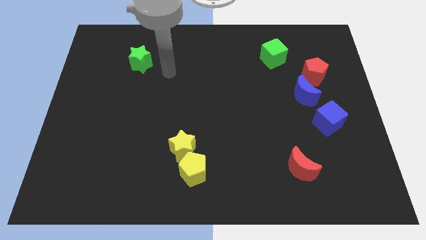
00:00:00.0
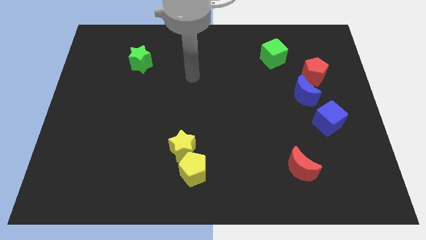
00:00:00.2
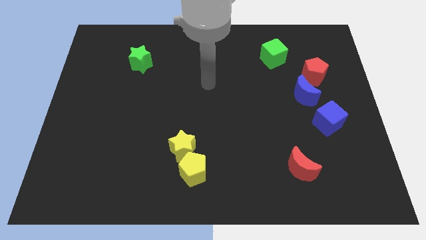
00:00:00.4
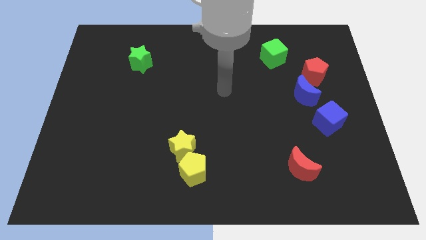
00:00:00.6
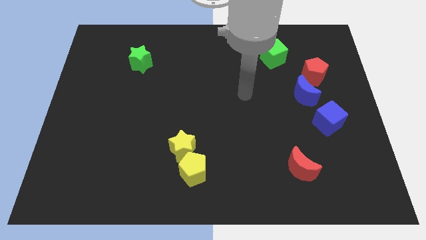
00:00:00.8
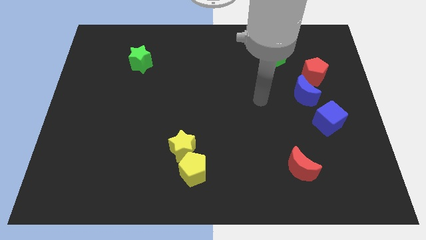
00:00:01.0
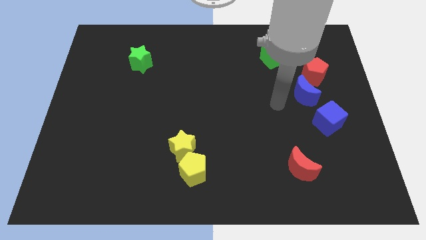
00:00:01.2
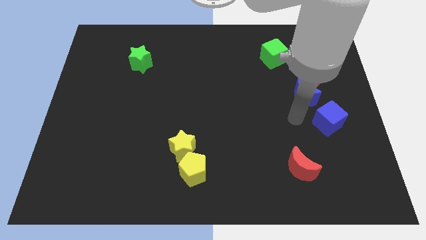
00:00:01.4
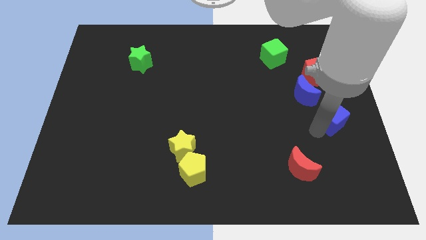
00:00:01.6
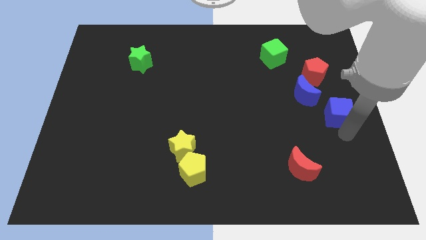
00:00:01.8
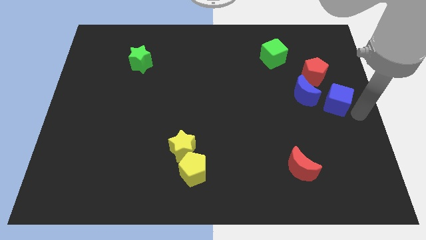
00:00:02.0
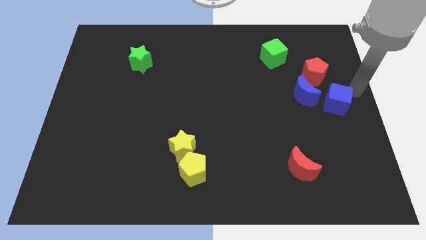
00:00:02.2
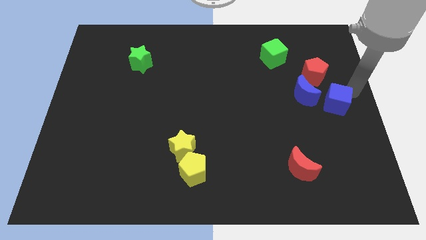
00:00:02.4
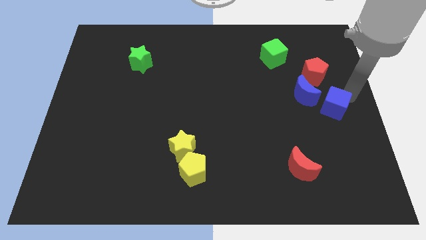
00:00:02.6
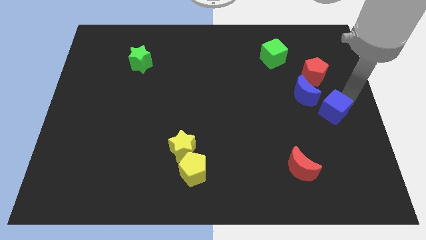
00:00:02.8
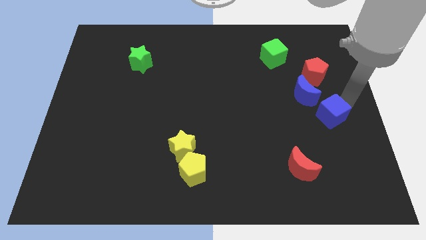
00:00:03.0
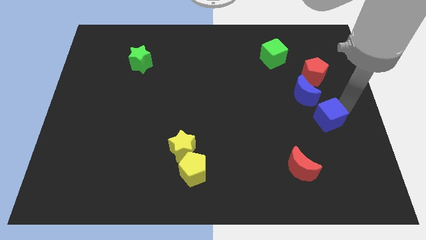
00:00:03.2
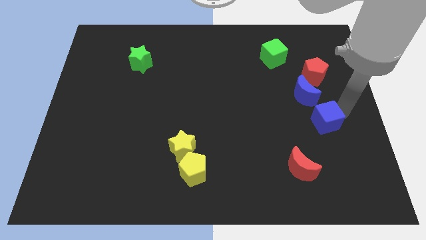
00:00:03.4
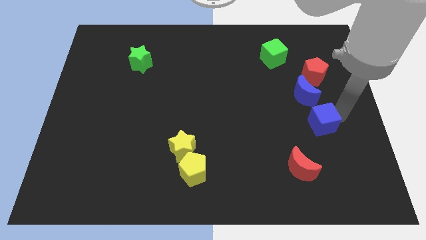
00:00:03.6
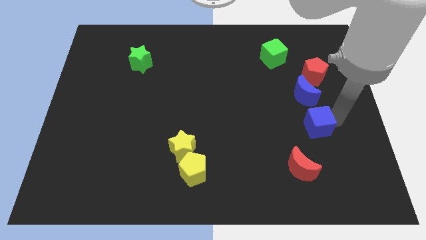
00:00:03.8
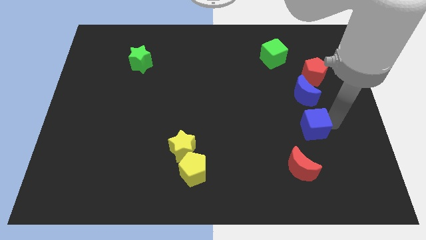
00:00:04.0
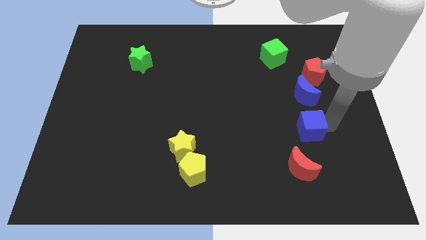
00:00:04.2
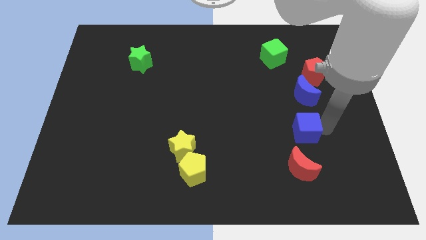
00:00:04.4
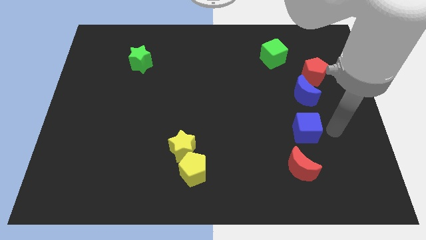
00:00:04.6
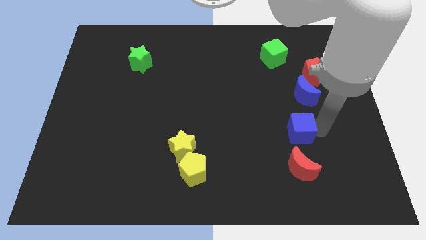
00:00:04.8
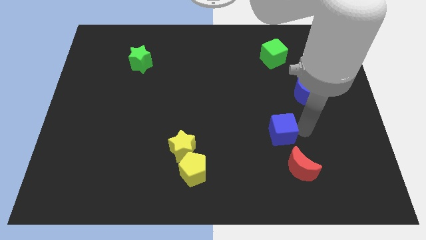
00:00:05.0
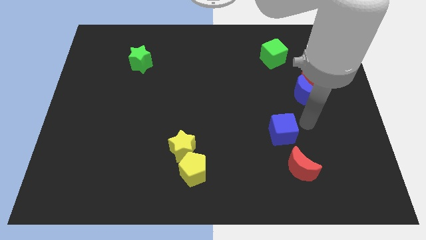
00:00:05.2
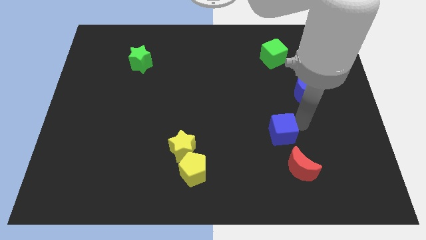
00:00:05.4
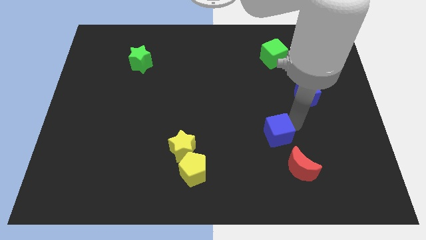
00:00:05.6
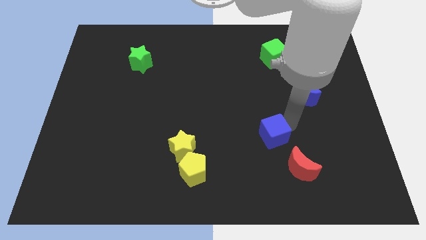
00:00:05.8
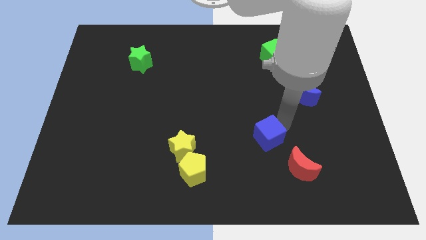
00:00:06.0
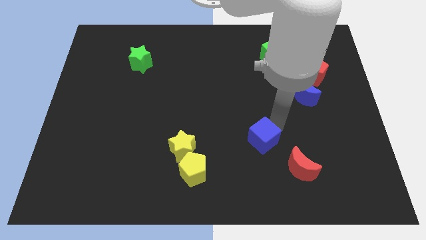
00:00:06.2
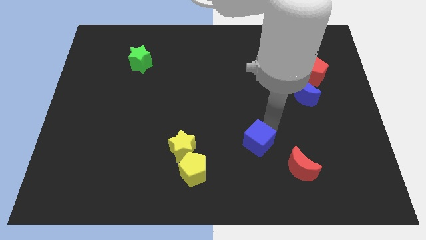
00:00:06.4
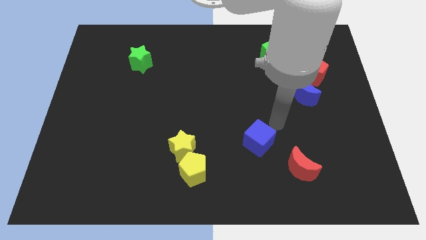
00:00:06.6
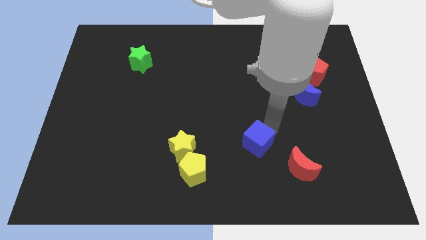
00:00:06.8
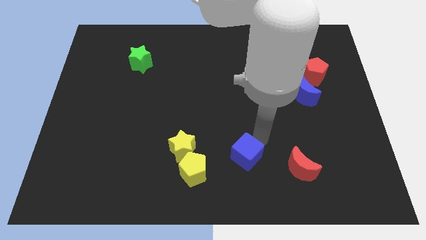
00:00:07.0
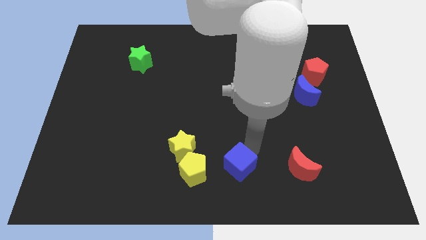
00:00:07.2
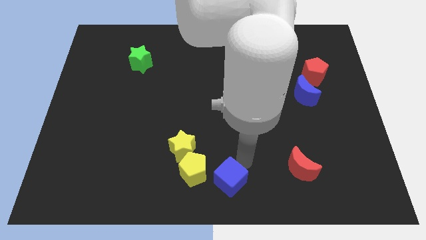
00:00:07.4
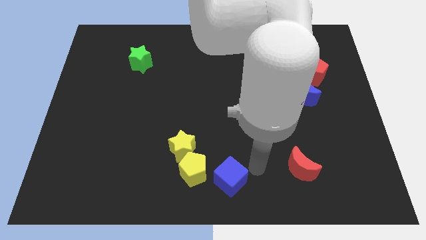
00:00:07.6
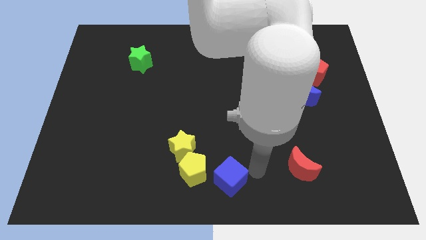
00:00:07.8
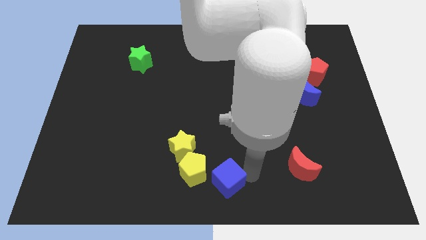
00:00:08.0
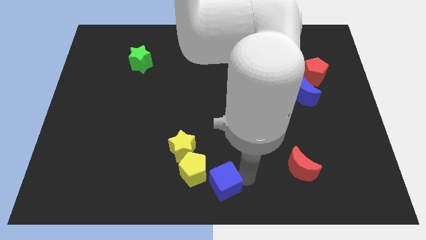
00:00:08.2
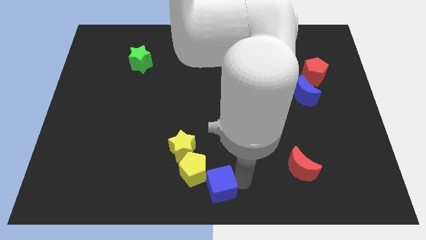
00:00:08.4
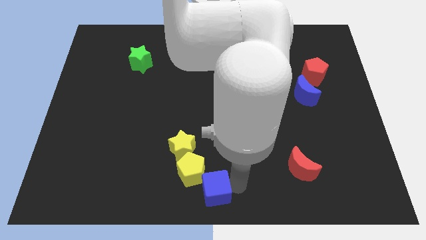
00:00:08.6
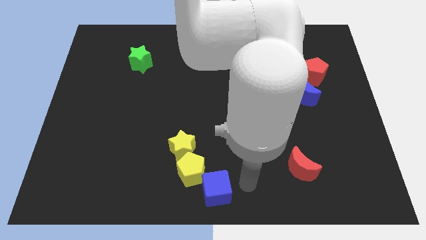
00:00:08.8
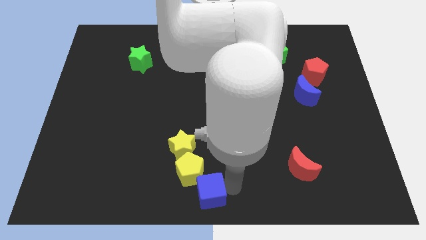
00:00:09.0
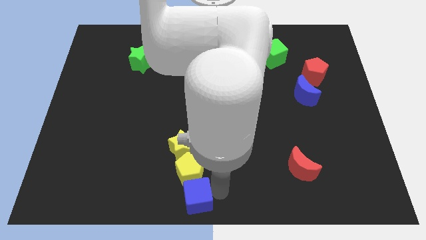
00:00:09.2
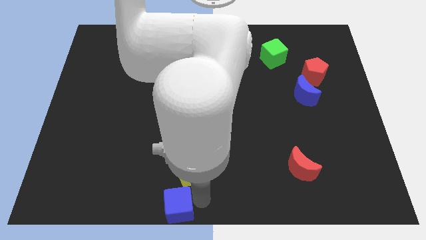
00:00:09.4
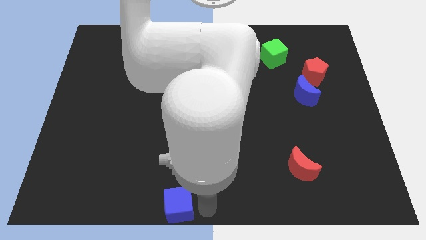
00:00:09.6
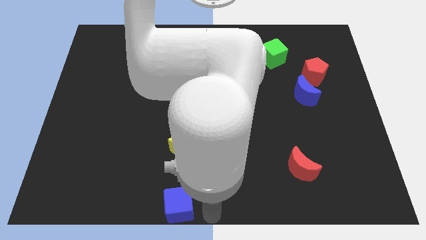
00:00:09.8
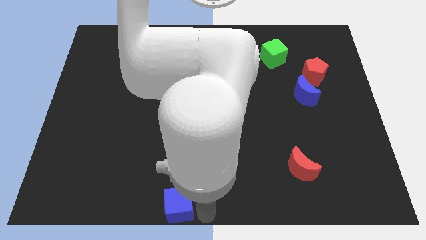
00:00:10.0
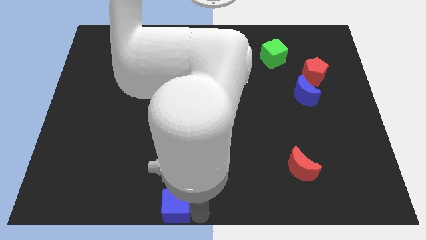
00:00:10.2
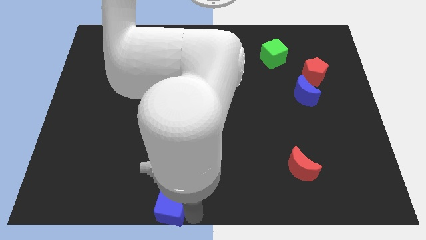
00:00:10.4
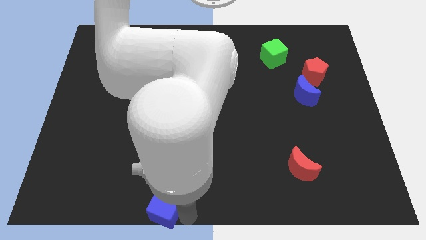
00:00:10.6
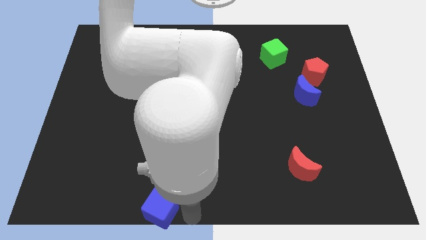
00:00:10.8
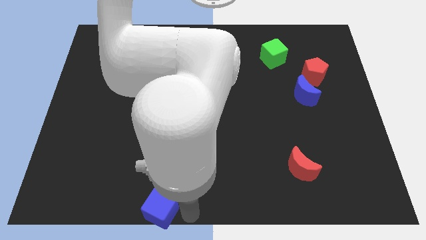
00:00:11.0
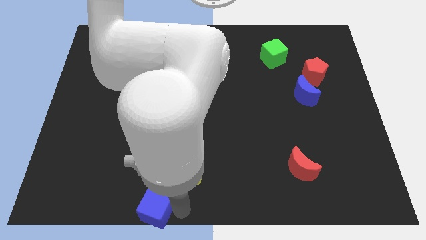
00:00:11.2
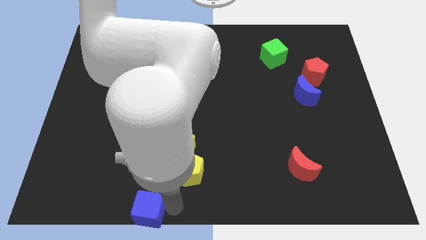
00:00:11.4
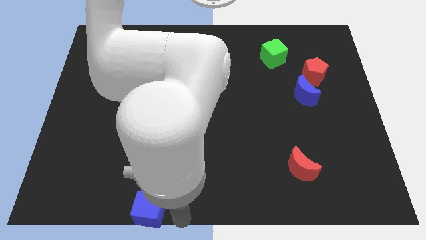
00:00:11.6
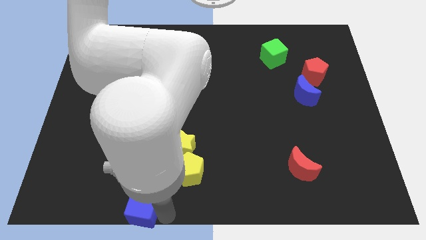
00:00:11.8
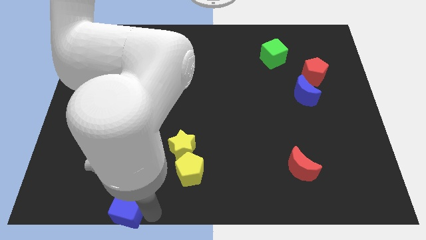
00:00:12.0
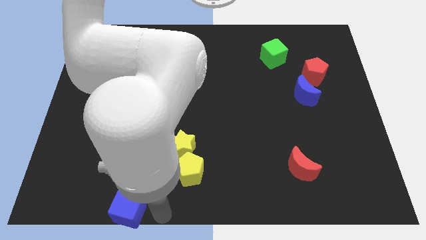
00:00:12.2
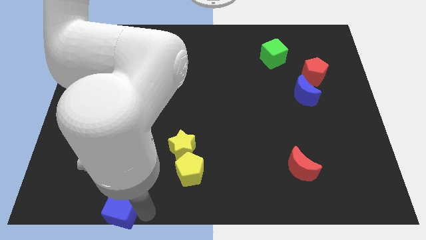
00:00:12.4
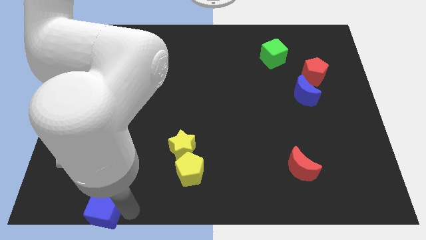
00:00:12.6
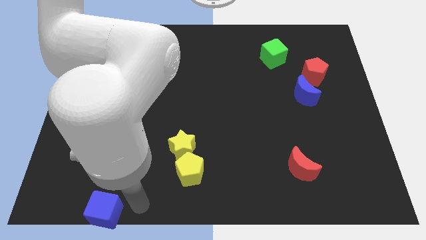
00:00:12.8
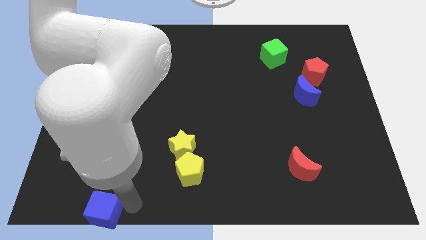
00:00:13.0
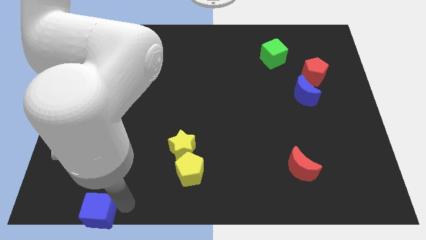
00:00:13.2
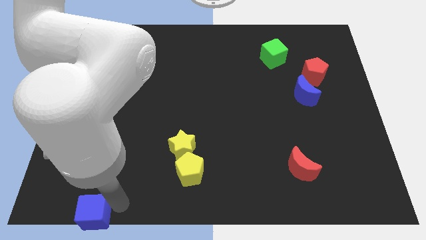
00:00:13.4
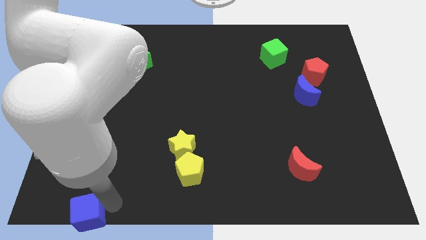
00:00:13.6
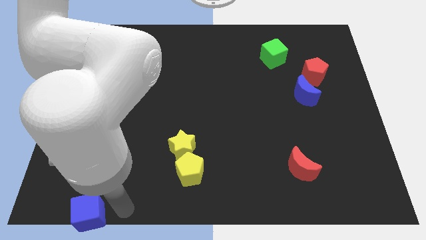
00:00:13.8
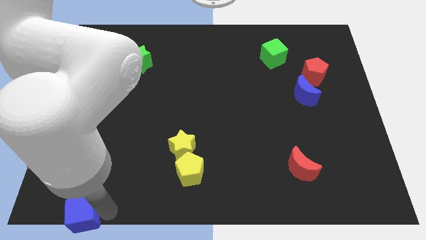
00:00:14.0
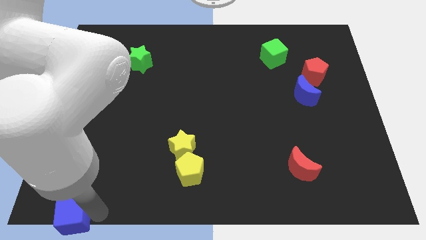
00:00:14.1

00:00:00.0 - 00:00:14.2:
put the blue cube to the bottom left of the board
